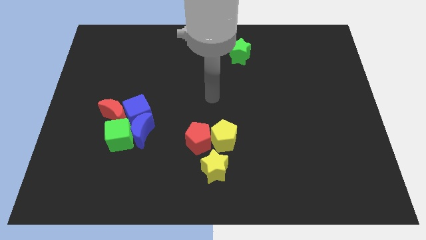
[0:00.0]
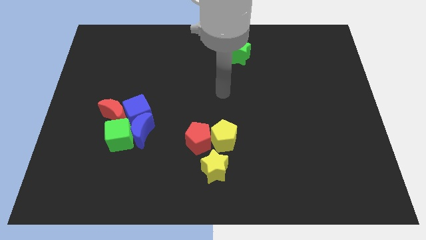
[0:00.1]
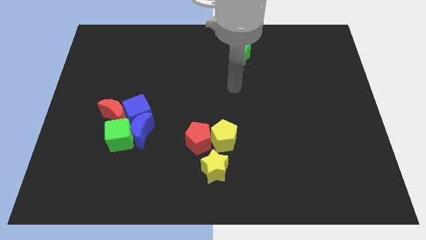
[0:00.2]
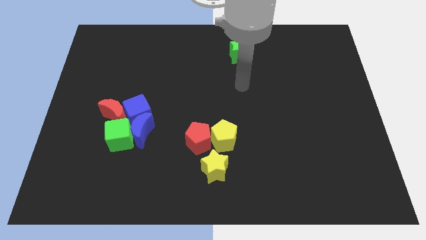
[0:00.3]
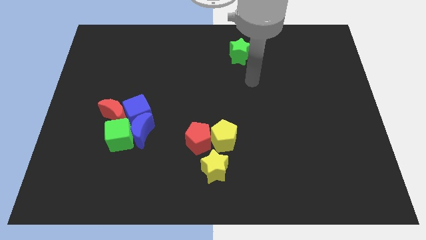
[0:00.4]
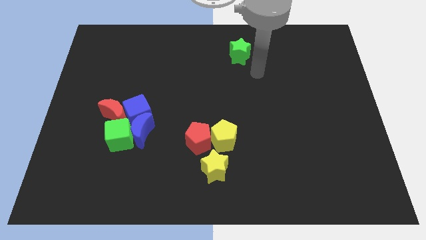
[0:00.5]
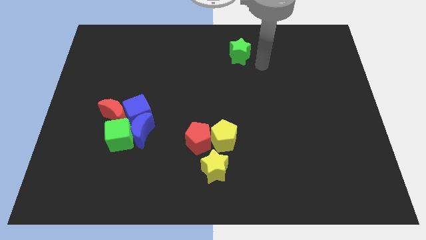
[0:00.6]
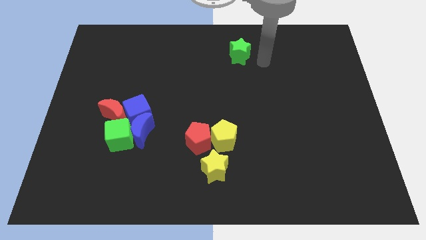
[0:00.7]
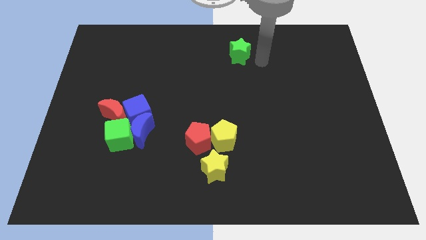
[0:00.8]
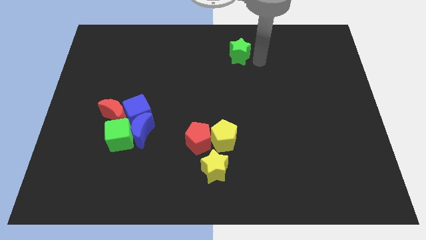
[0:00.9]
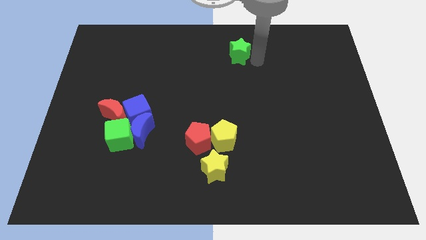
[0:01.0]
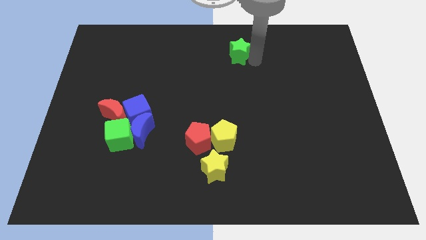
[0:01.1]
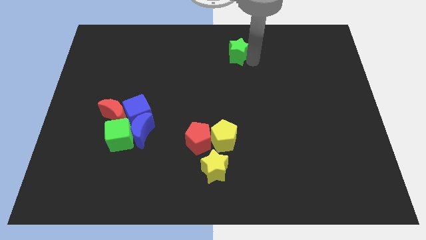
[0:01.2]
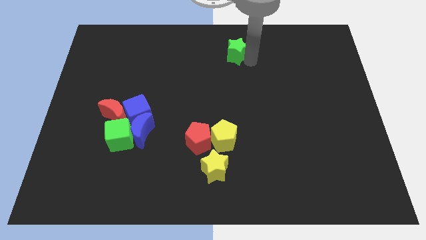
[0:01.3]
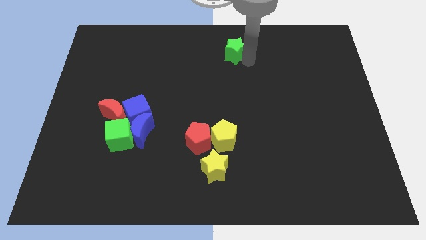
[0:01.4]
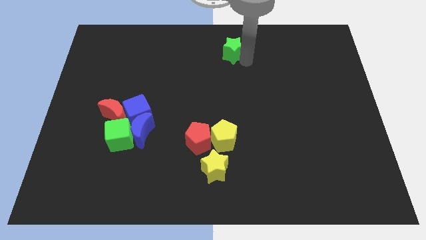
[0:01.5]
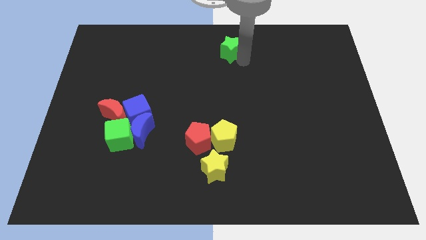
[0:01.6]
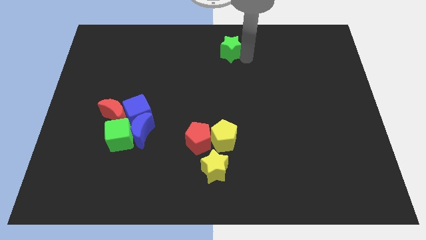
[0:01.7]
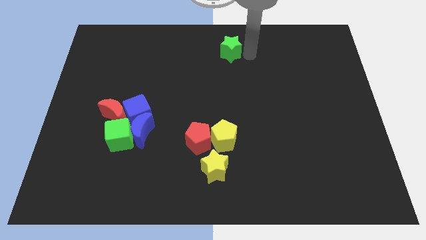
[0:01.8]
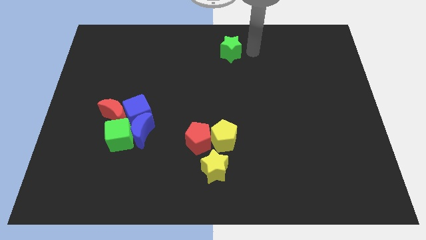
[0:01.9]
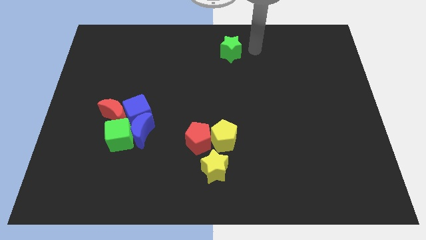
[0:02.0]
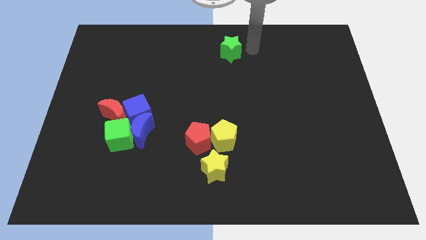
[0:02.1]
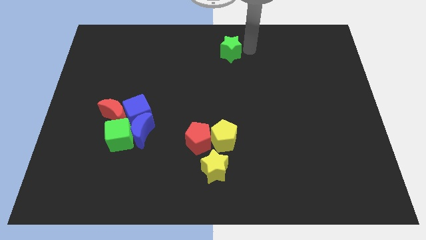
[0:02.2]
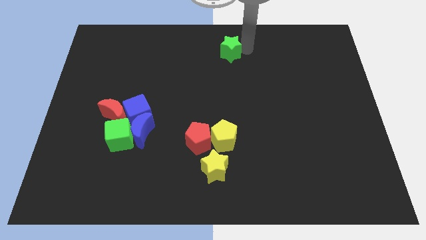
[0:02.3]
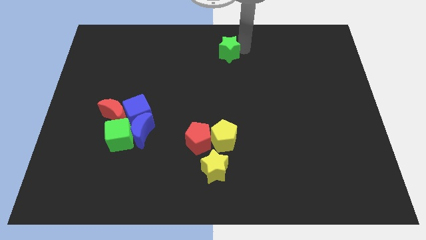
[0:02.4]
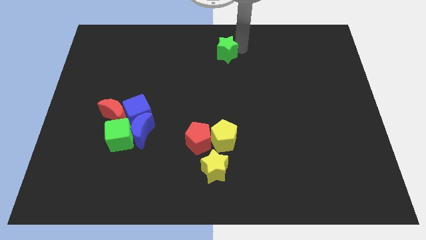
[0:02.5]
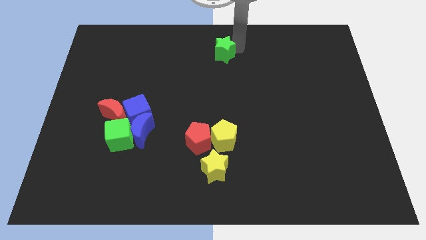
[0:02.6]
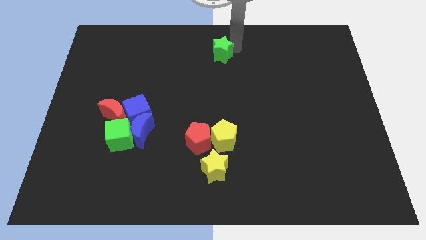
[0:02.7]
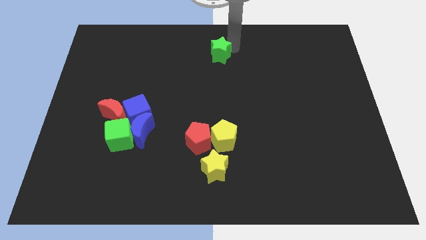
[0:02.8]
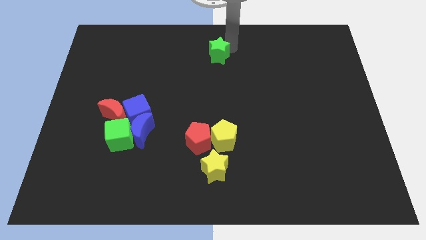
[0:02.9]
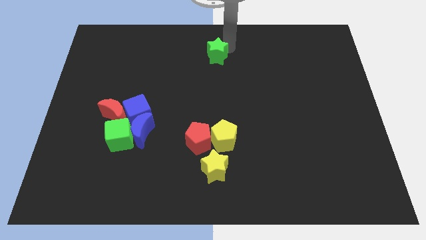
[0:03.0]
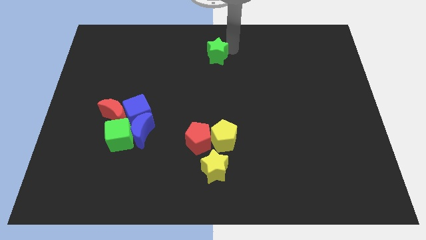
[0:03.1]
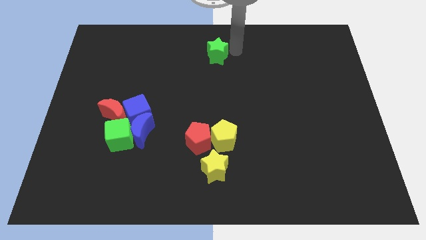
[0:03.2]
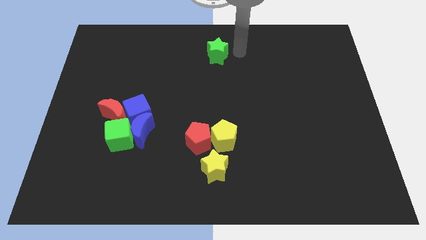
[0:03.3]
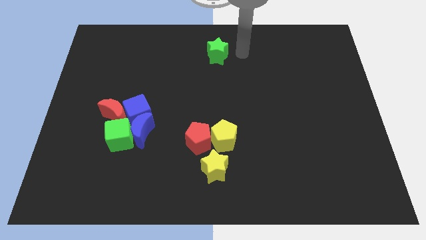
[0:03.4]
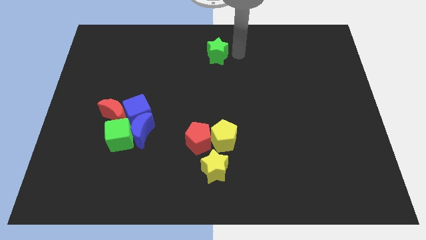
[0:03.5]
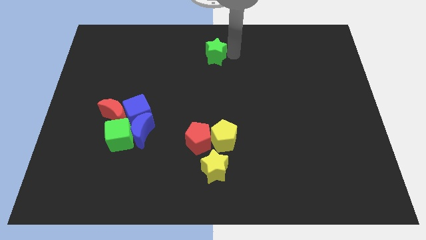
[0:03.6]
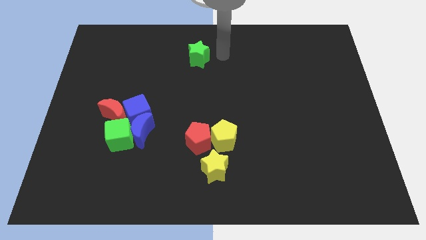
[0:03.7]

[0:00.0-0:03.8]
slightly move the green star to the left

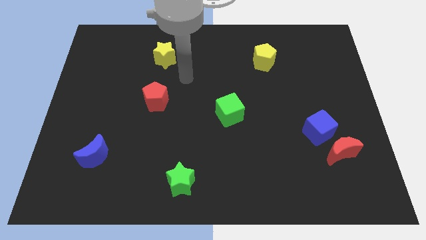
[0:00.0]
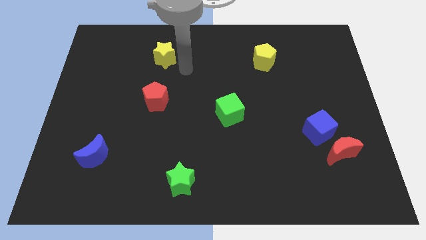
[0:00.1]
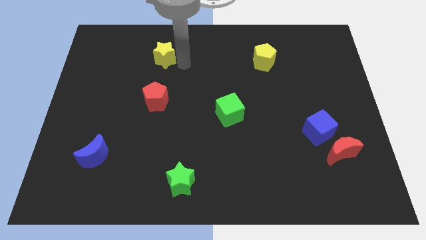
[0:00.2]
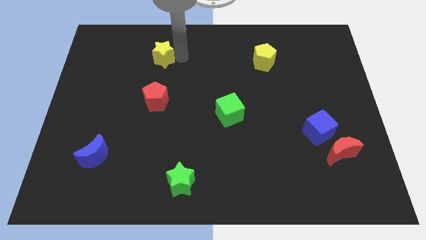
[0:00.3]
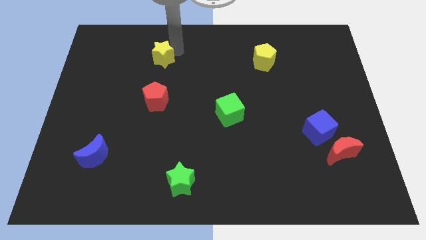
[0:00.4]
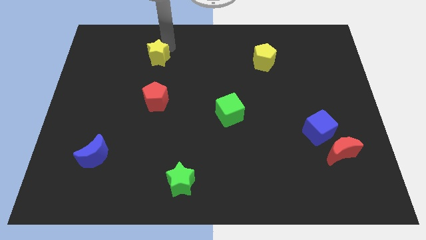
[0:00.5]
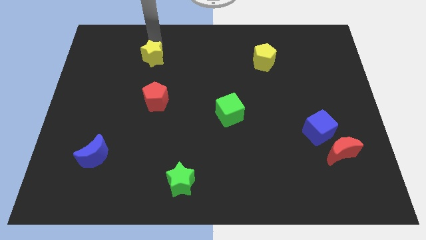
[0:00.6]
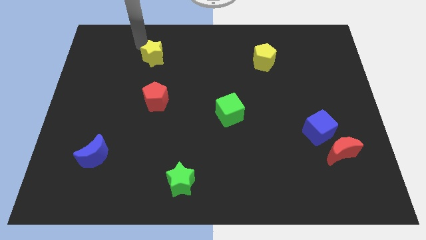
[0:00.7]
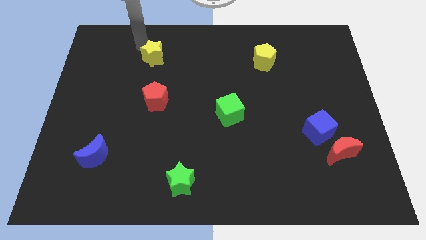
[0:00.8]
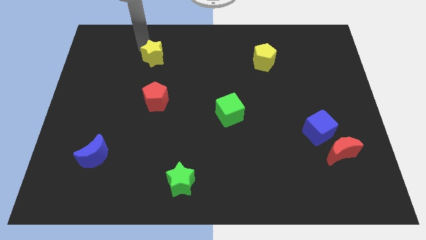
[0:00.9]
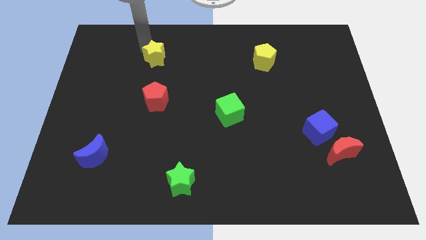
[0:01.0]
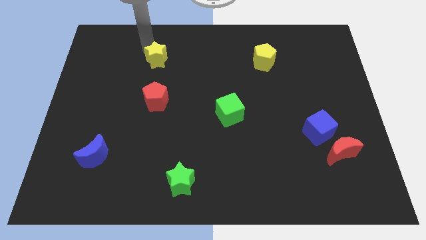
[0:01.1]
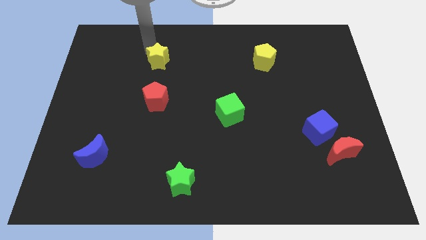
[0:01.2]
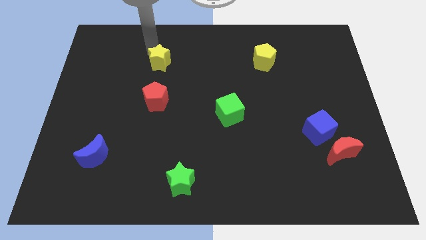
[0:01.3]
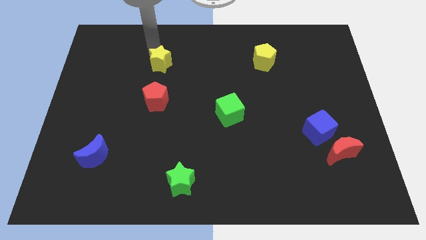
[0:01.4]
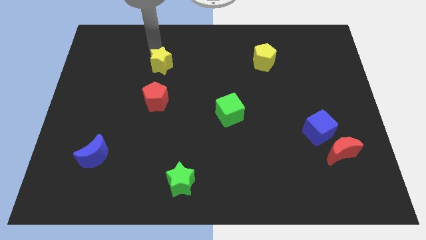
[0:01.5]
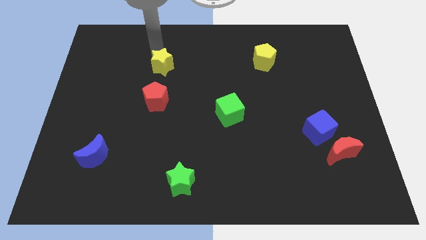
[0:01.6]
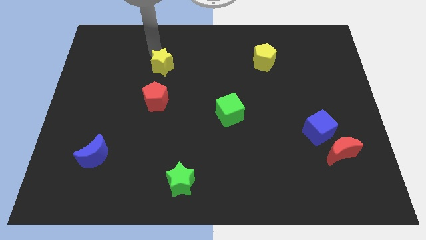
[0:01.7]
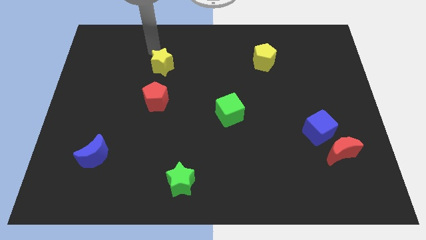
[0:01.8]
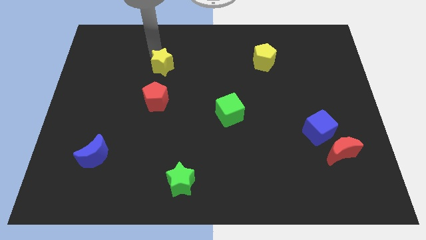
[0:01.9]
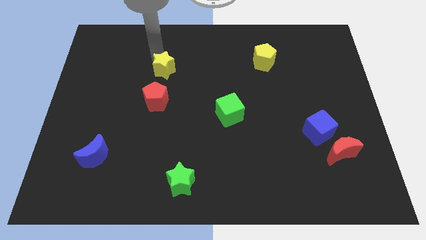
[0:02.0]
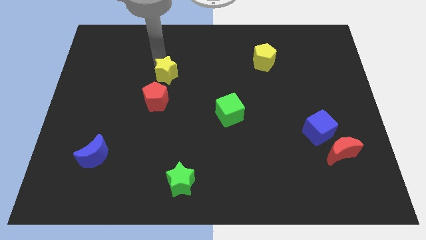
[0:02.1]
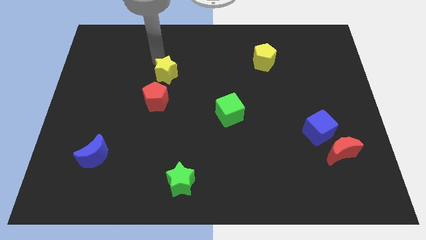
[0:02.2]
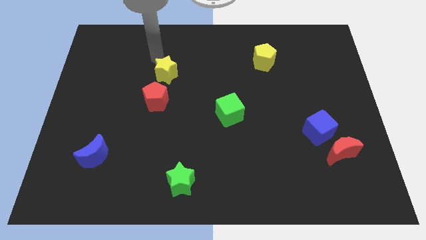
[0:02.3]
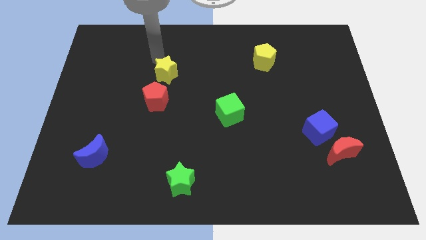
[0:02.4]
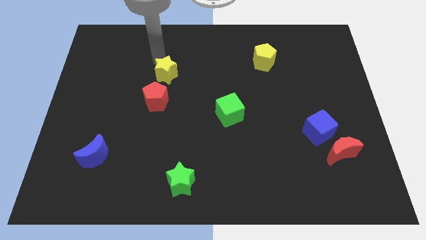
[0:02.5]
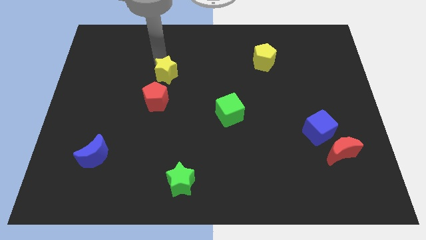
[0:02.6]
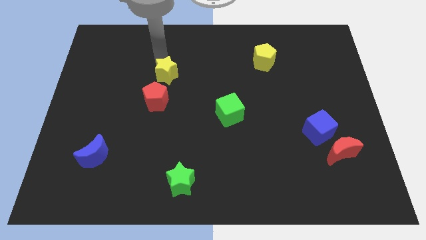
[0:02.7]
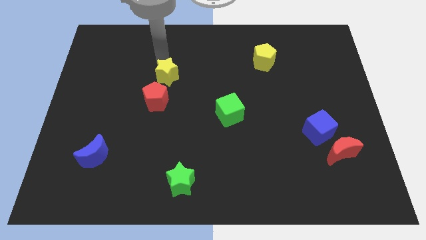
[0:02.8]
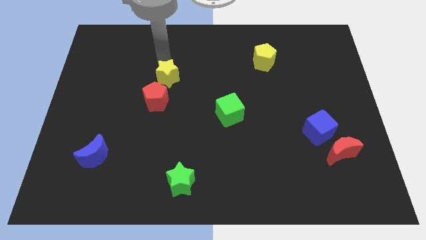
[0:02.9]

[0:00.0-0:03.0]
slide the yellow star somewhat downwards

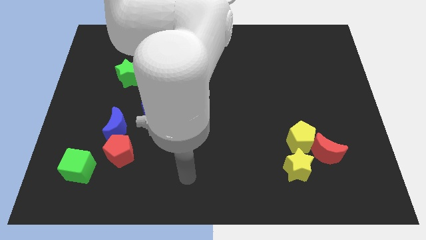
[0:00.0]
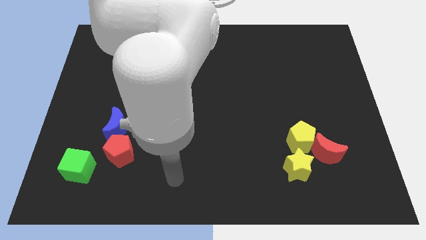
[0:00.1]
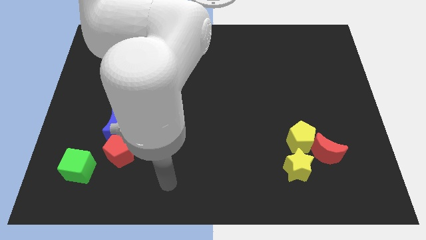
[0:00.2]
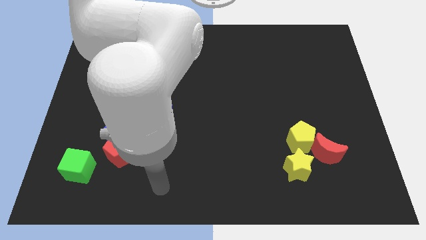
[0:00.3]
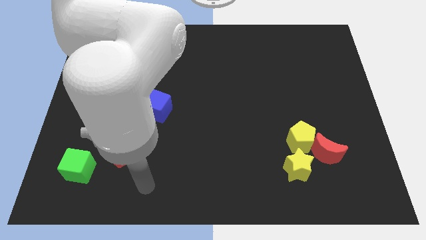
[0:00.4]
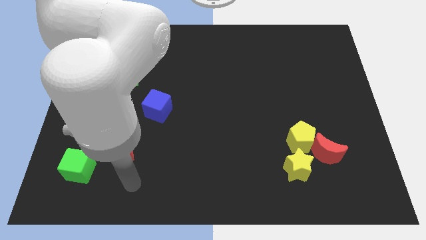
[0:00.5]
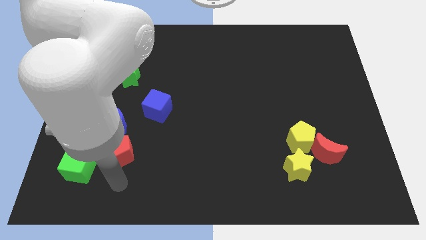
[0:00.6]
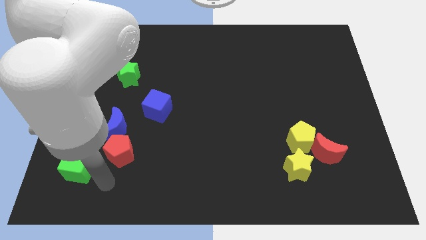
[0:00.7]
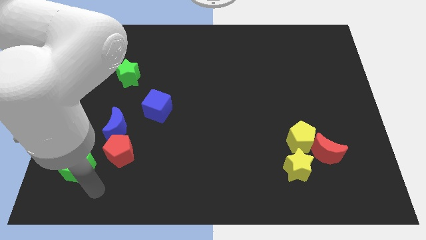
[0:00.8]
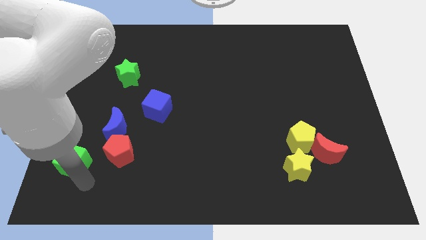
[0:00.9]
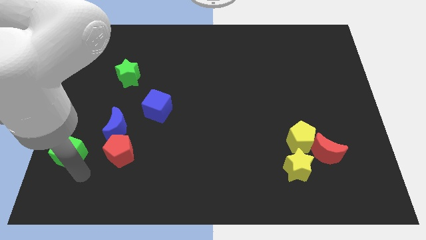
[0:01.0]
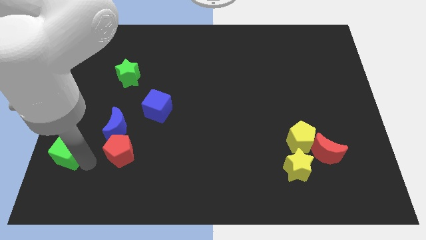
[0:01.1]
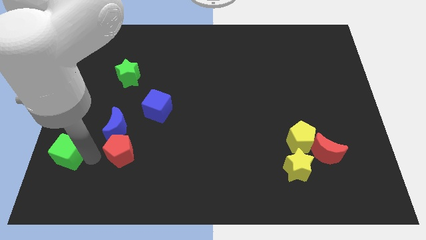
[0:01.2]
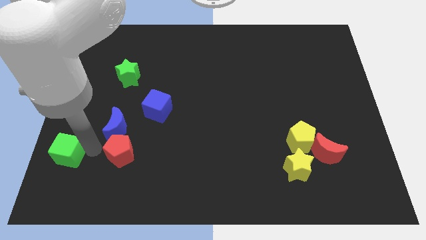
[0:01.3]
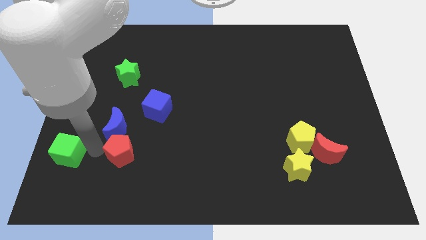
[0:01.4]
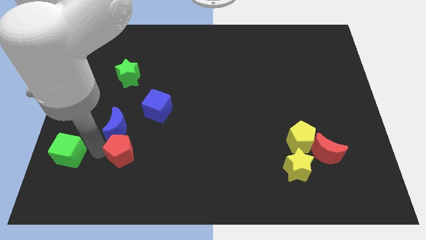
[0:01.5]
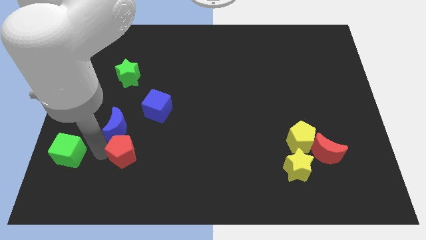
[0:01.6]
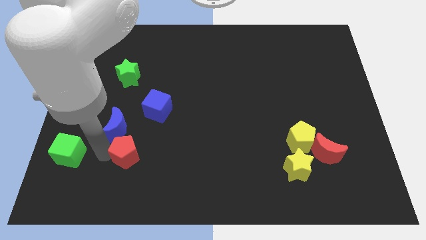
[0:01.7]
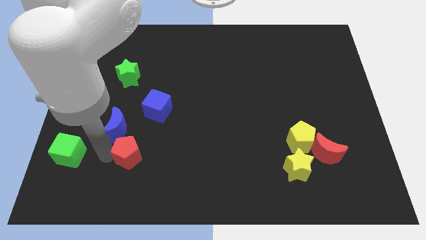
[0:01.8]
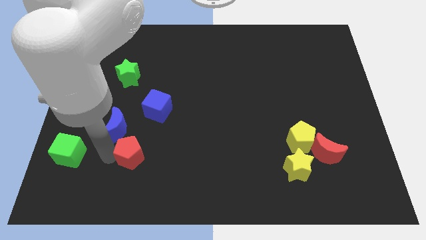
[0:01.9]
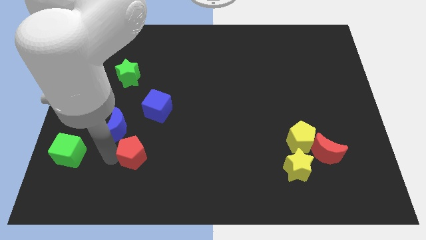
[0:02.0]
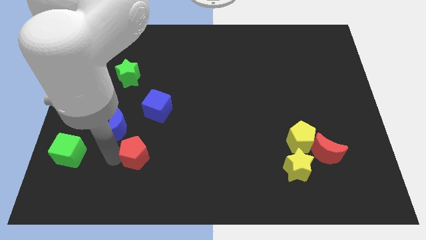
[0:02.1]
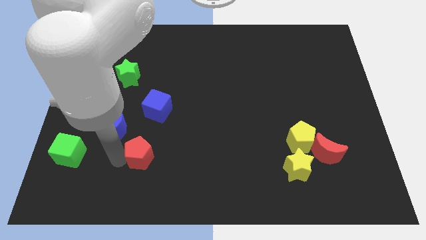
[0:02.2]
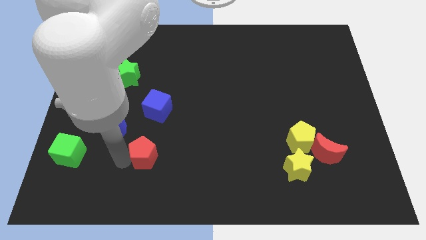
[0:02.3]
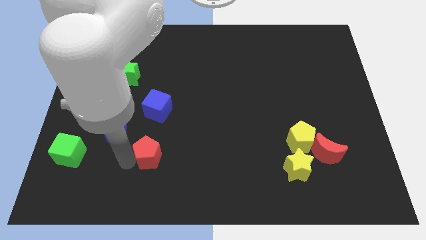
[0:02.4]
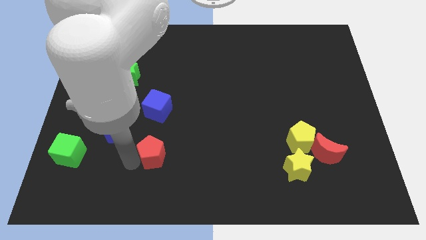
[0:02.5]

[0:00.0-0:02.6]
slightly push the red pentagon right
